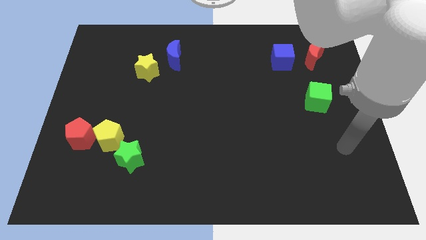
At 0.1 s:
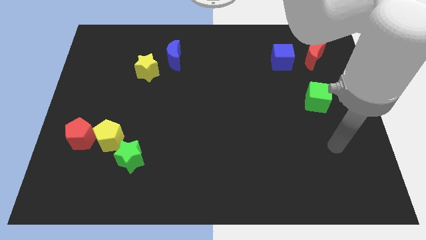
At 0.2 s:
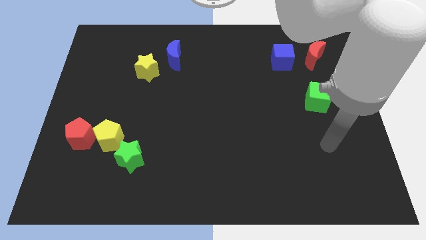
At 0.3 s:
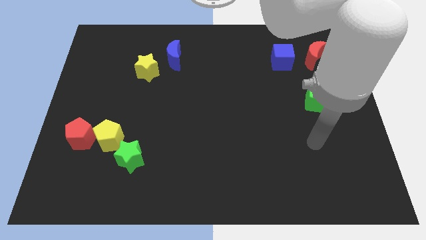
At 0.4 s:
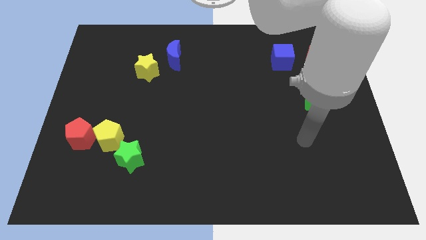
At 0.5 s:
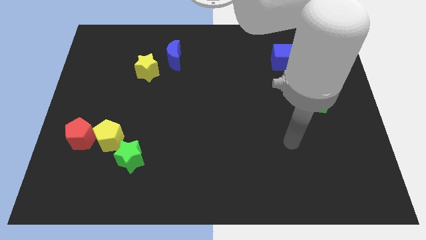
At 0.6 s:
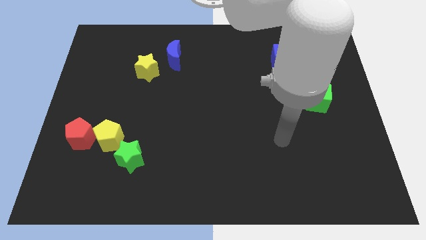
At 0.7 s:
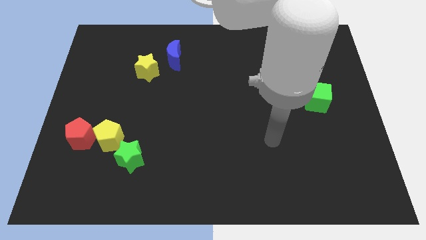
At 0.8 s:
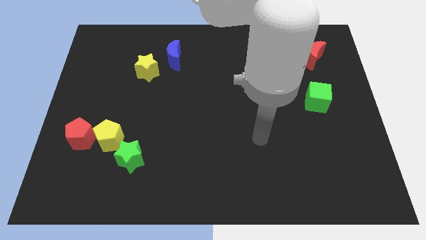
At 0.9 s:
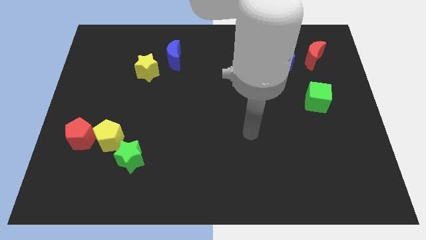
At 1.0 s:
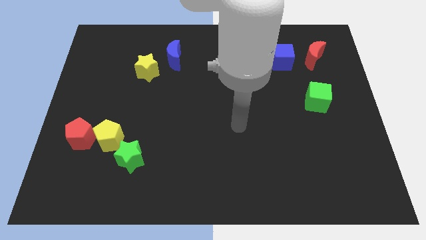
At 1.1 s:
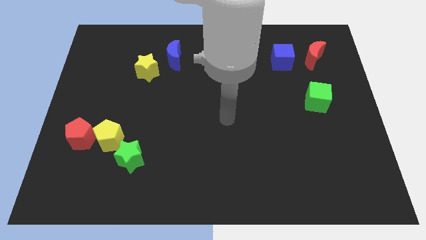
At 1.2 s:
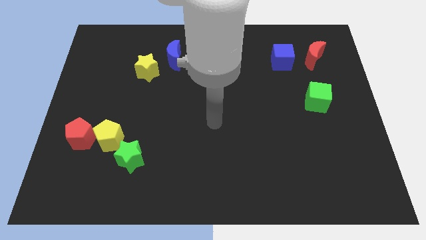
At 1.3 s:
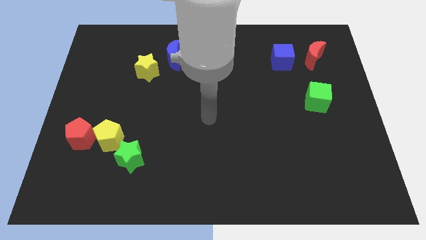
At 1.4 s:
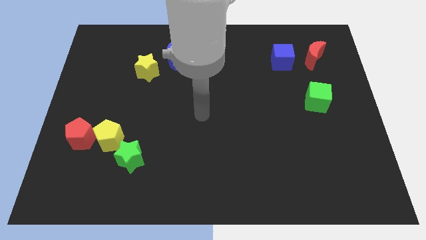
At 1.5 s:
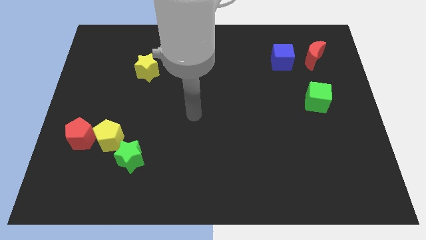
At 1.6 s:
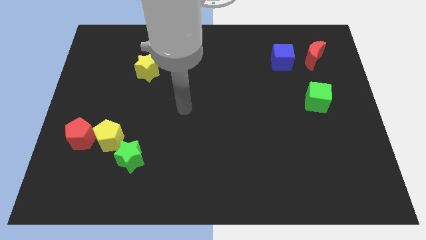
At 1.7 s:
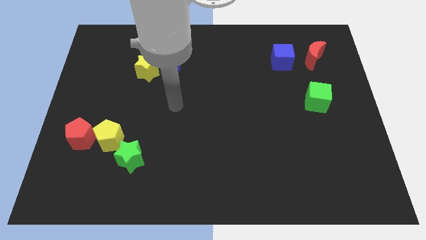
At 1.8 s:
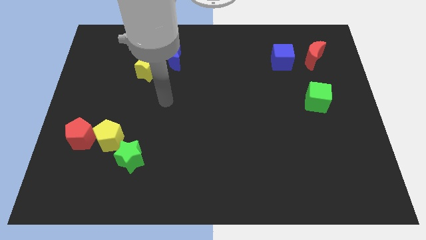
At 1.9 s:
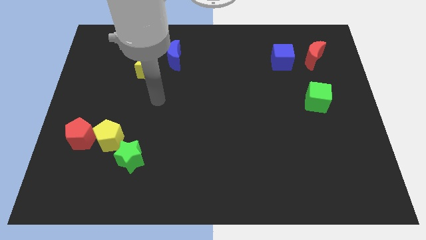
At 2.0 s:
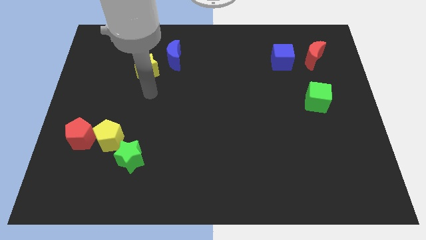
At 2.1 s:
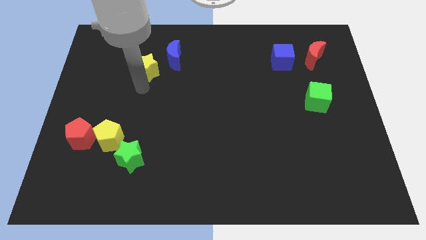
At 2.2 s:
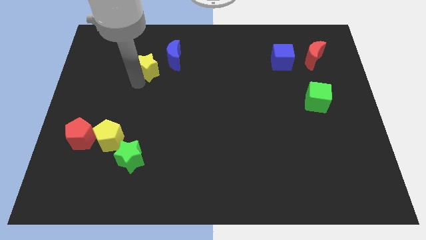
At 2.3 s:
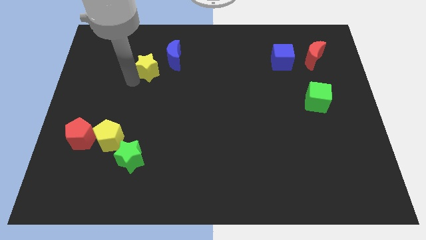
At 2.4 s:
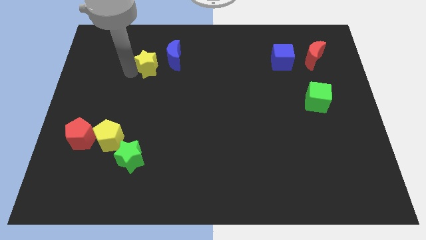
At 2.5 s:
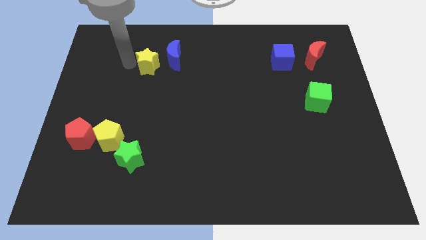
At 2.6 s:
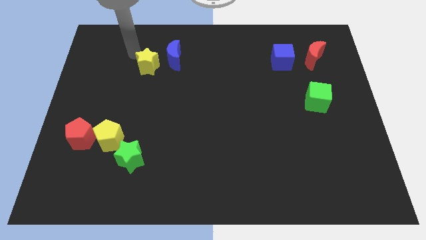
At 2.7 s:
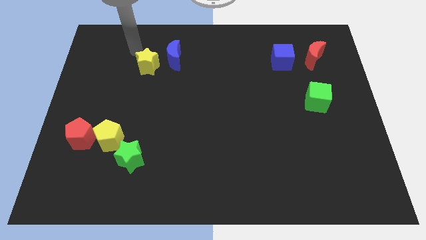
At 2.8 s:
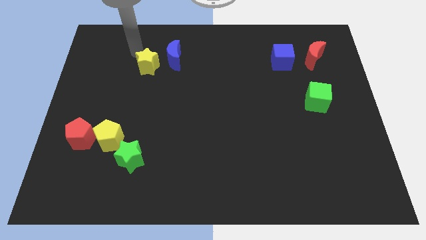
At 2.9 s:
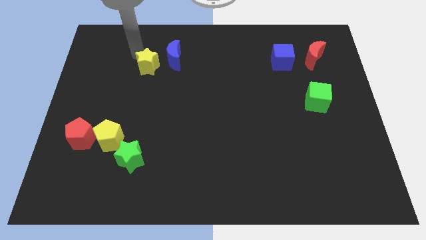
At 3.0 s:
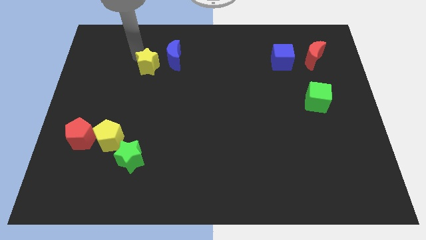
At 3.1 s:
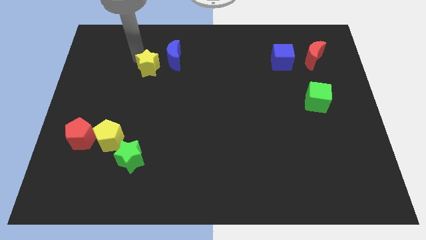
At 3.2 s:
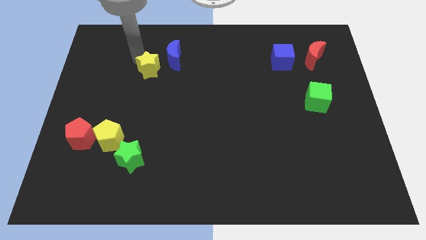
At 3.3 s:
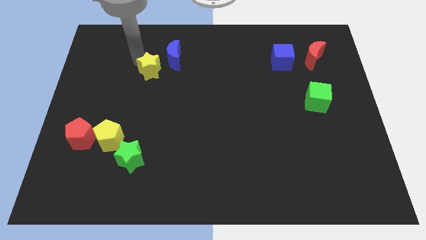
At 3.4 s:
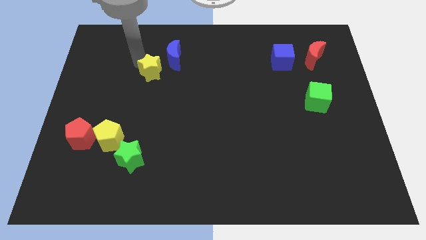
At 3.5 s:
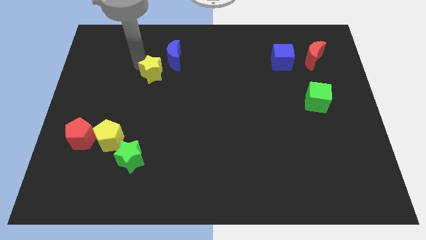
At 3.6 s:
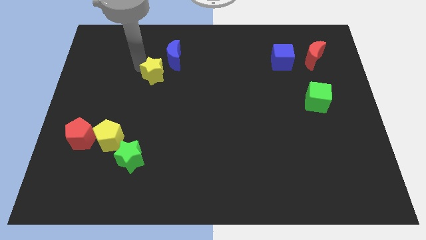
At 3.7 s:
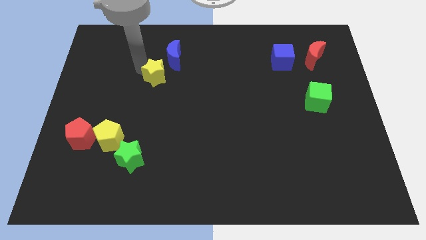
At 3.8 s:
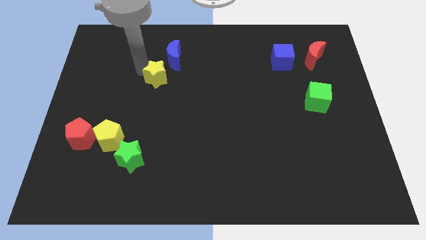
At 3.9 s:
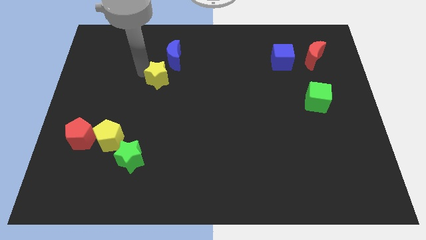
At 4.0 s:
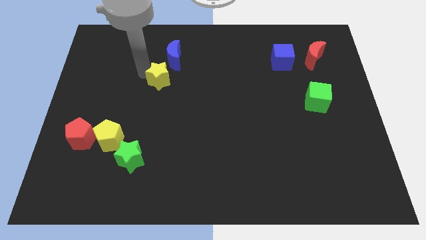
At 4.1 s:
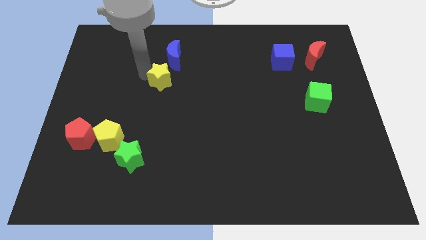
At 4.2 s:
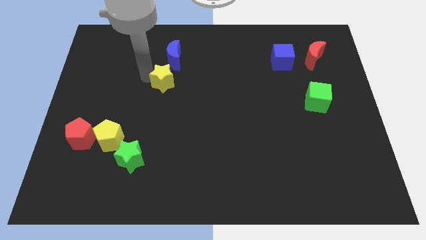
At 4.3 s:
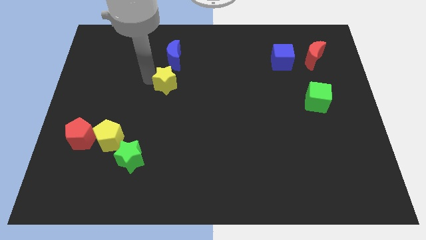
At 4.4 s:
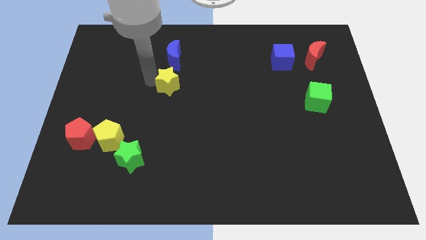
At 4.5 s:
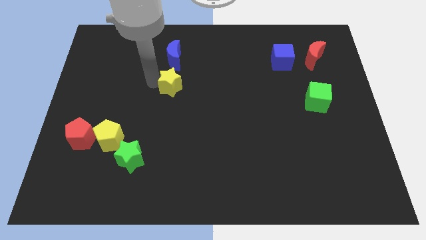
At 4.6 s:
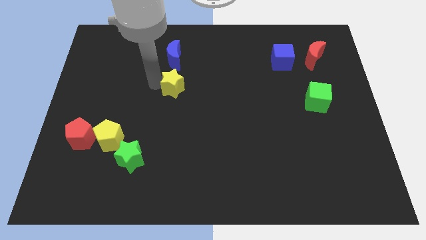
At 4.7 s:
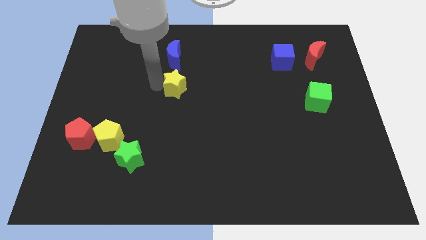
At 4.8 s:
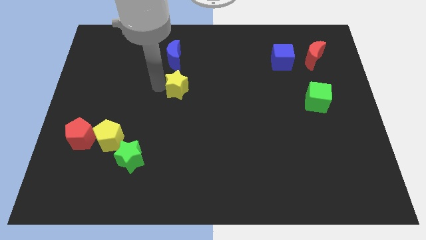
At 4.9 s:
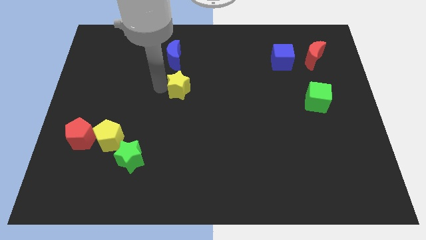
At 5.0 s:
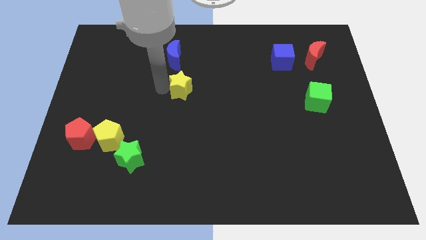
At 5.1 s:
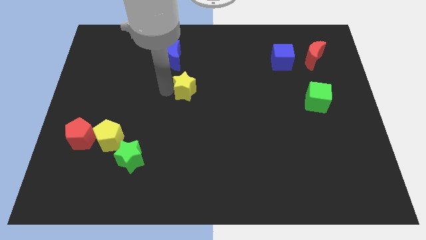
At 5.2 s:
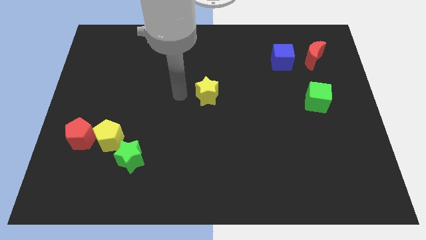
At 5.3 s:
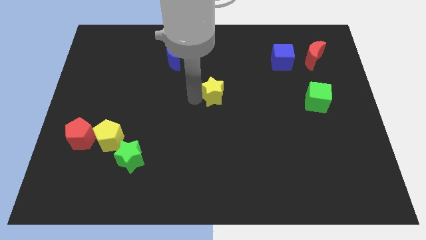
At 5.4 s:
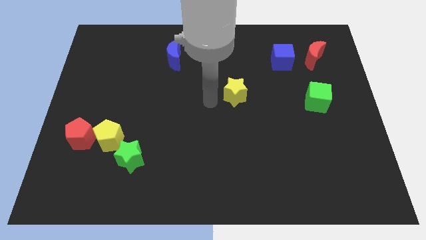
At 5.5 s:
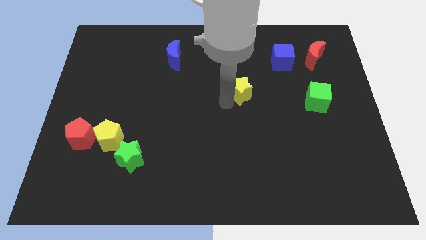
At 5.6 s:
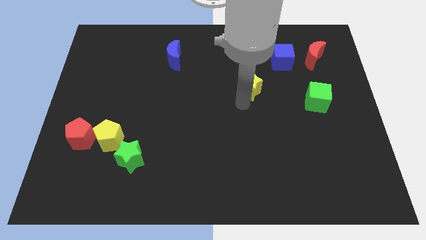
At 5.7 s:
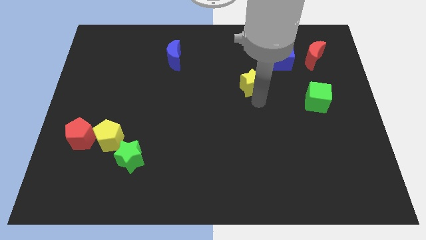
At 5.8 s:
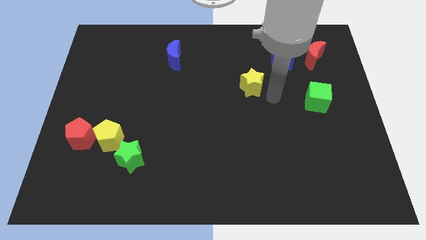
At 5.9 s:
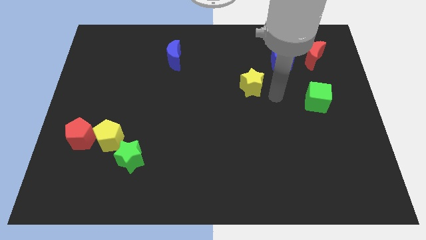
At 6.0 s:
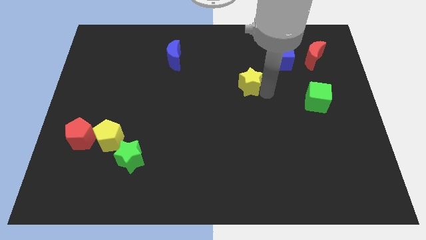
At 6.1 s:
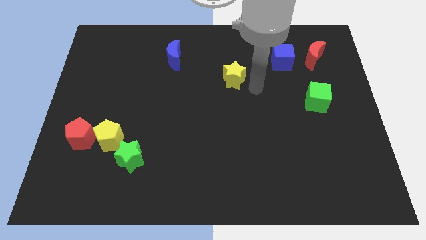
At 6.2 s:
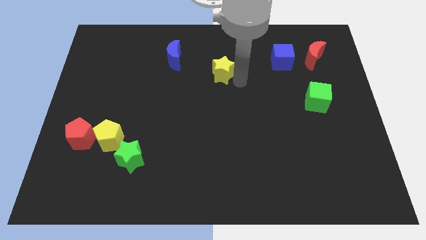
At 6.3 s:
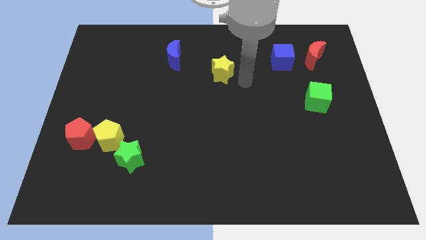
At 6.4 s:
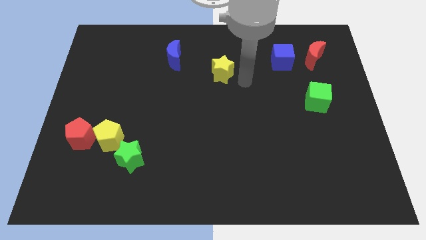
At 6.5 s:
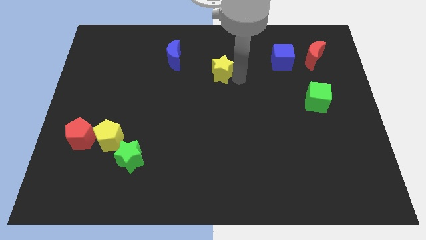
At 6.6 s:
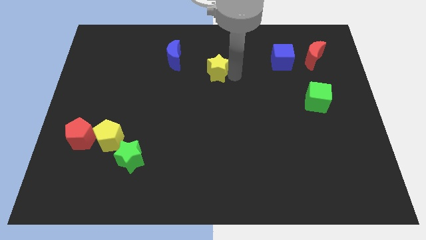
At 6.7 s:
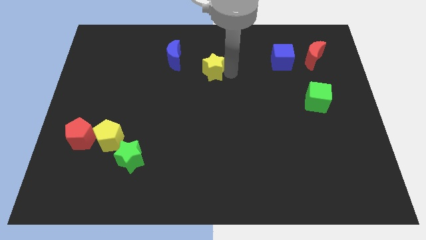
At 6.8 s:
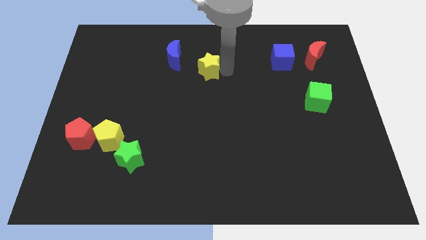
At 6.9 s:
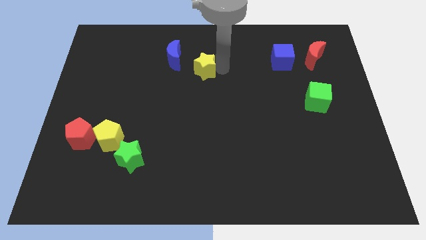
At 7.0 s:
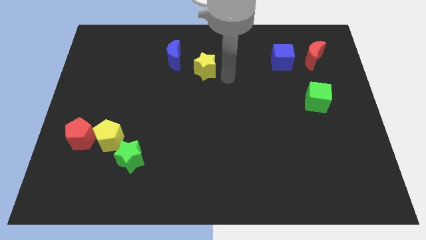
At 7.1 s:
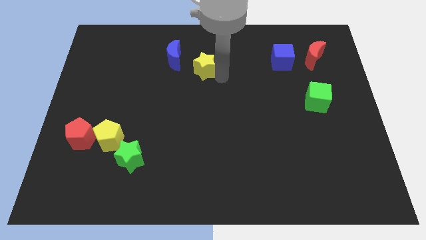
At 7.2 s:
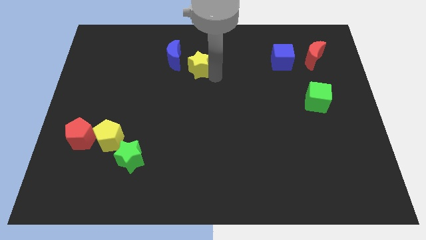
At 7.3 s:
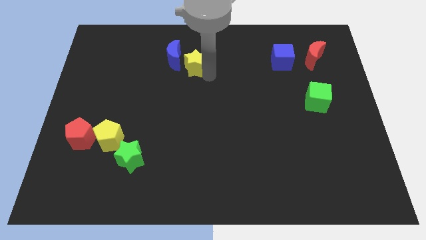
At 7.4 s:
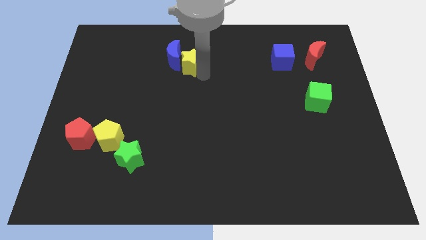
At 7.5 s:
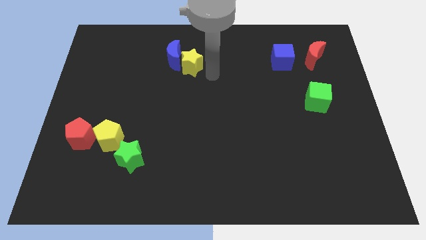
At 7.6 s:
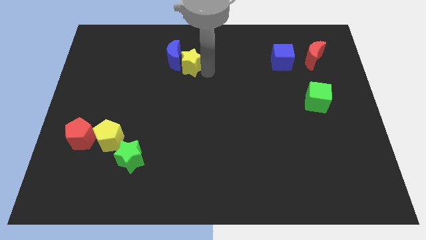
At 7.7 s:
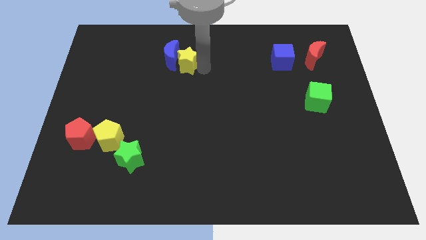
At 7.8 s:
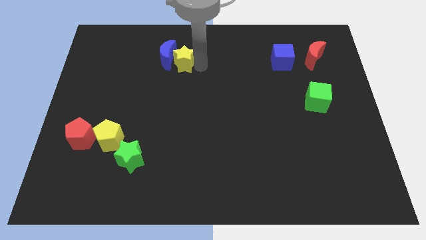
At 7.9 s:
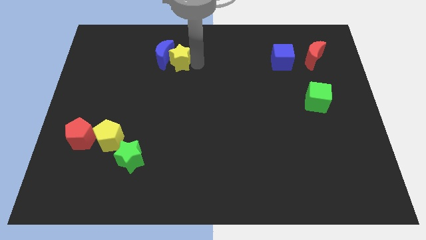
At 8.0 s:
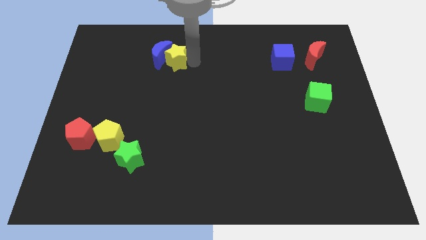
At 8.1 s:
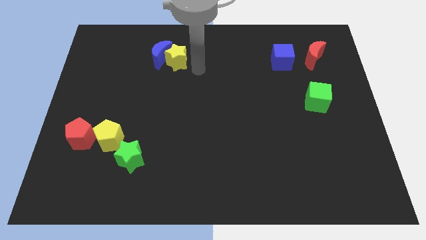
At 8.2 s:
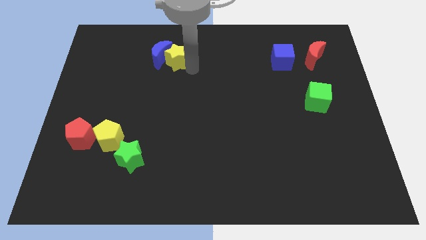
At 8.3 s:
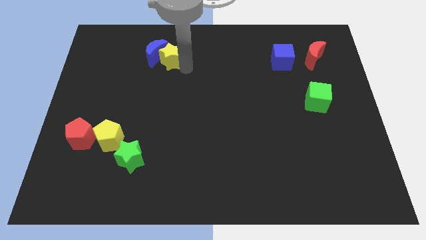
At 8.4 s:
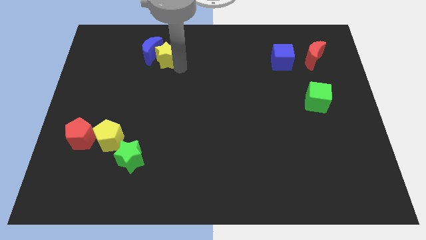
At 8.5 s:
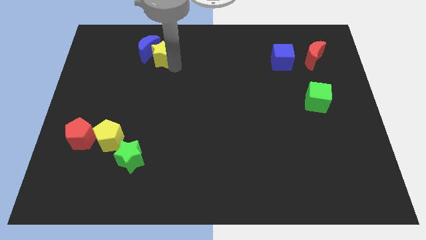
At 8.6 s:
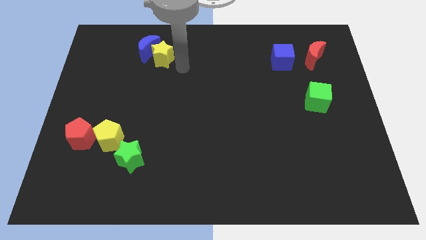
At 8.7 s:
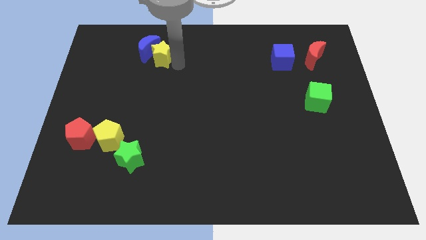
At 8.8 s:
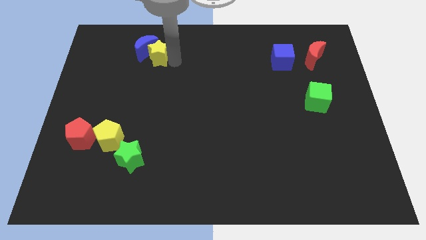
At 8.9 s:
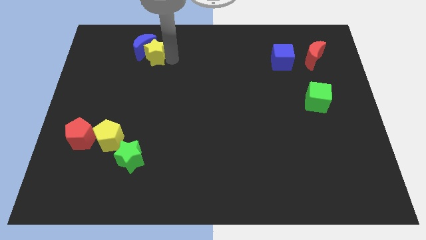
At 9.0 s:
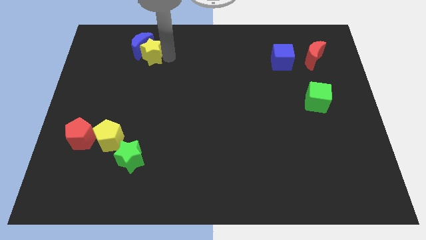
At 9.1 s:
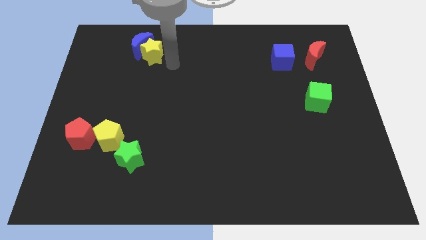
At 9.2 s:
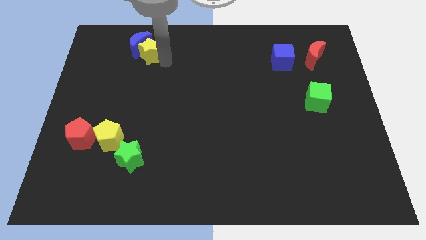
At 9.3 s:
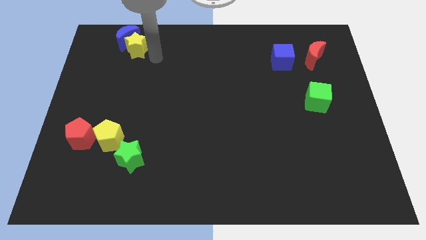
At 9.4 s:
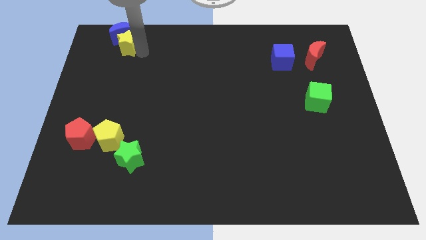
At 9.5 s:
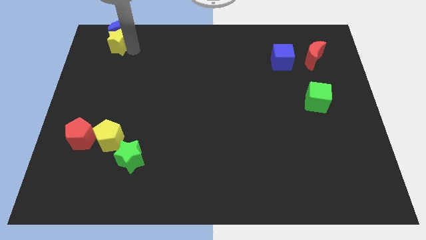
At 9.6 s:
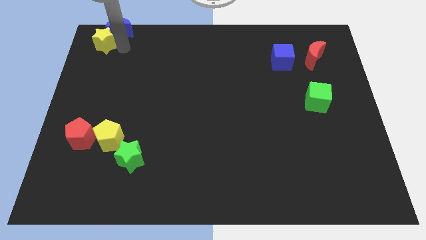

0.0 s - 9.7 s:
push the yellow star to the top left
